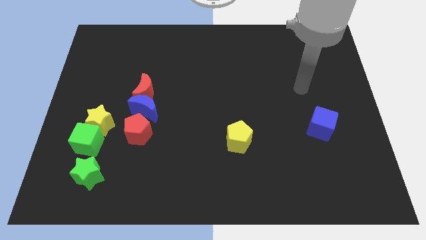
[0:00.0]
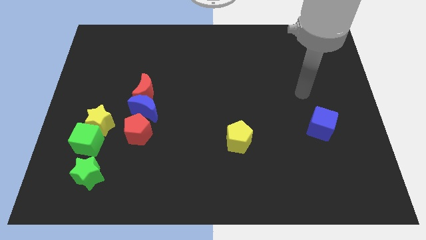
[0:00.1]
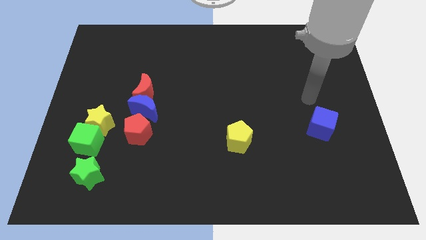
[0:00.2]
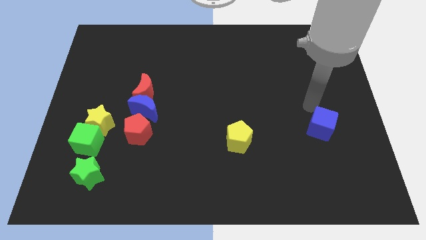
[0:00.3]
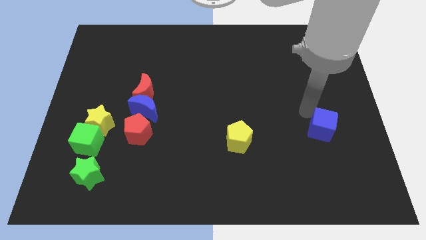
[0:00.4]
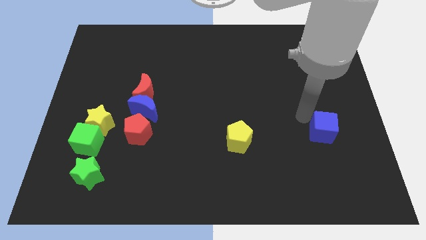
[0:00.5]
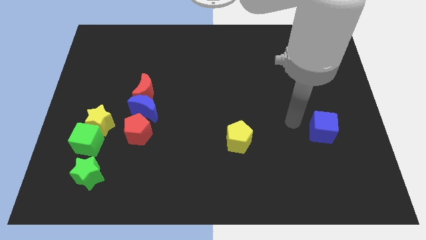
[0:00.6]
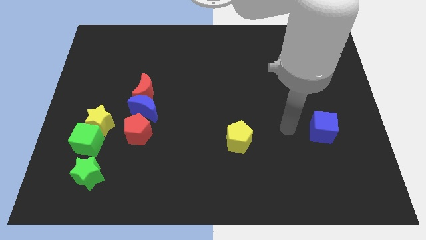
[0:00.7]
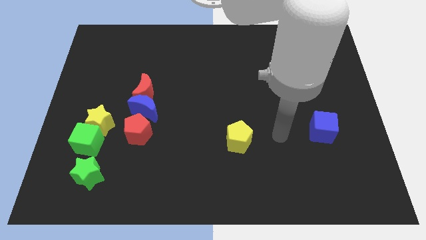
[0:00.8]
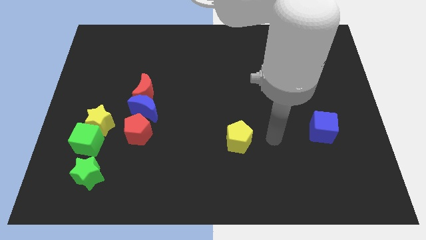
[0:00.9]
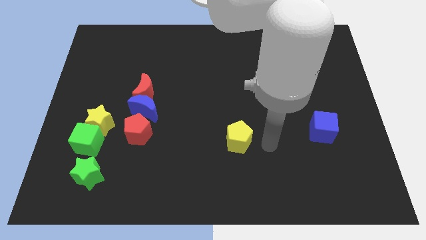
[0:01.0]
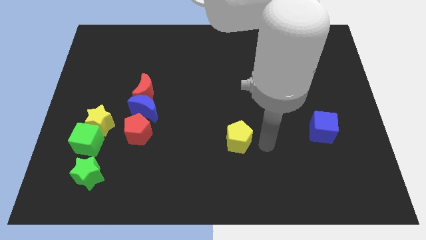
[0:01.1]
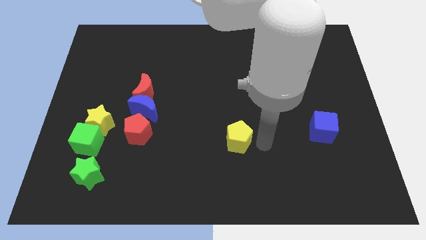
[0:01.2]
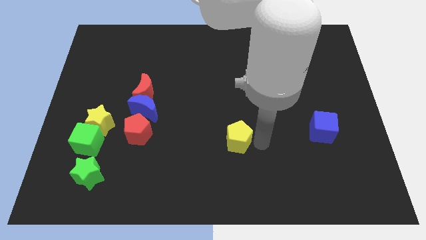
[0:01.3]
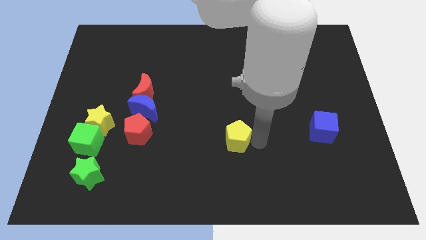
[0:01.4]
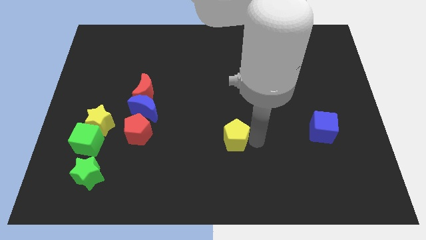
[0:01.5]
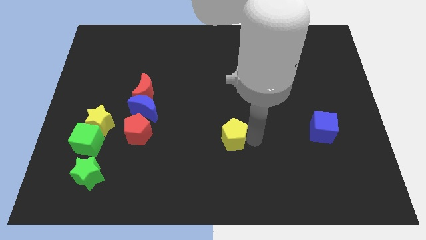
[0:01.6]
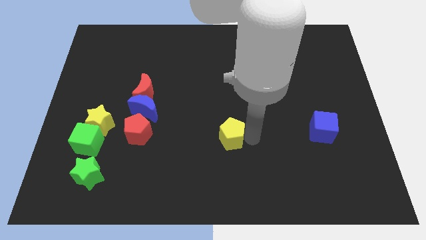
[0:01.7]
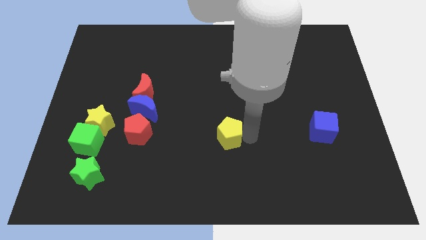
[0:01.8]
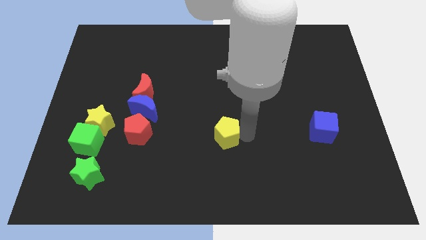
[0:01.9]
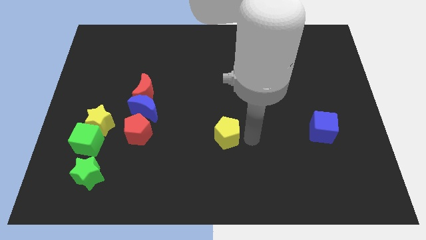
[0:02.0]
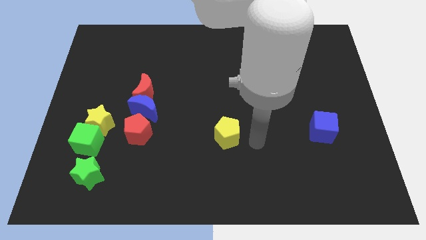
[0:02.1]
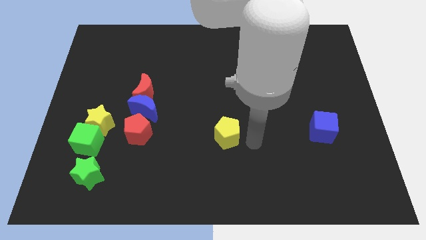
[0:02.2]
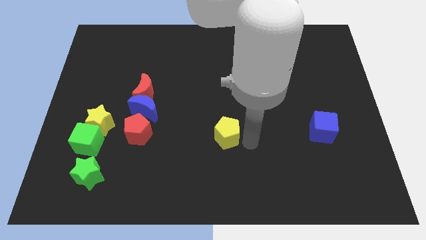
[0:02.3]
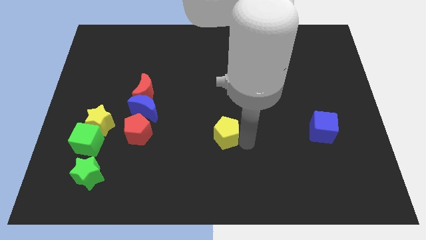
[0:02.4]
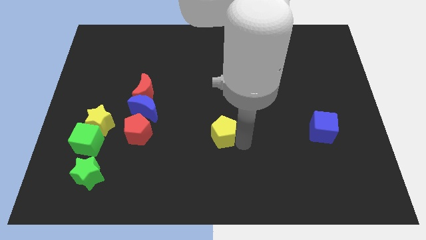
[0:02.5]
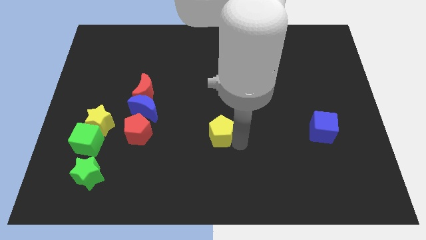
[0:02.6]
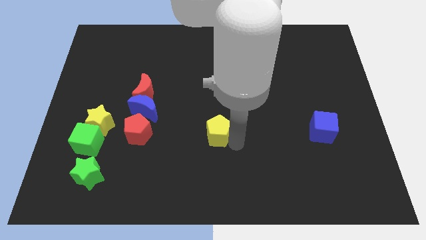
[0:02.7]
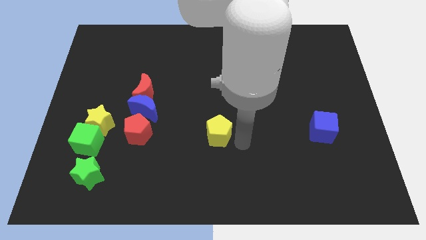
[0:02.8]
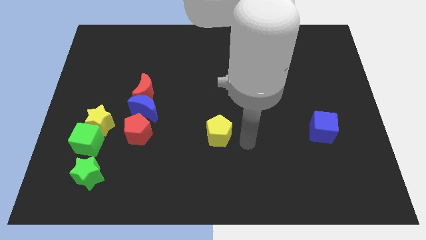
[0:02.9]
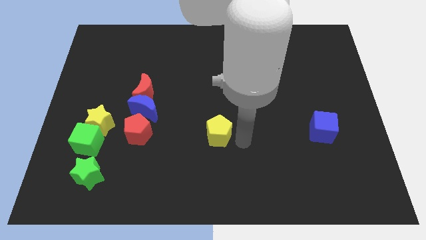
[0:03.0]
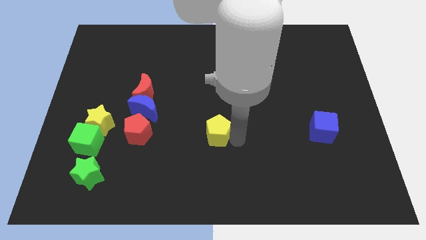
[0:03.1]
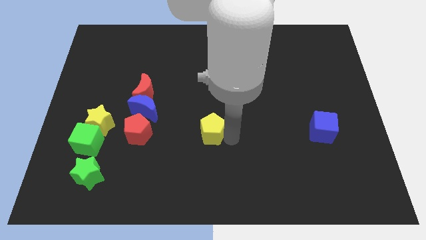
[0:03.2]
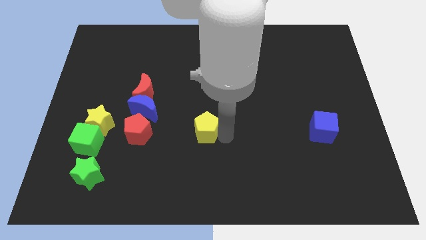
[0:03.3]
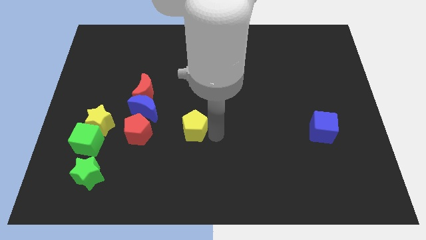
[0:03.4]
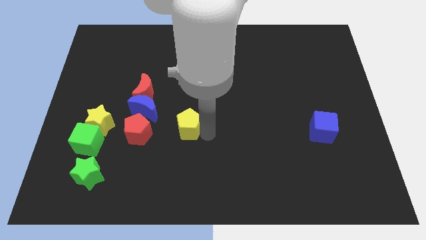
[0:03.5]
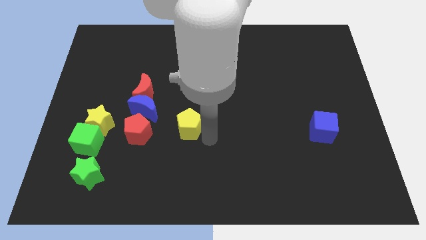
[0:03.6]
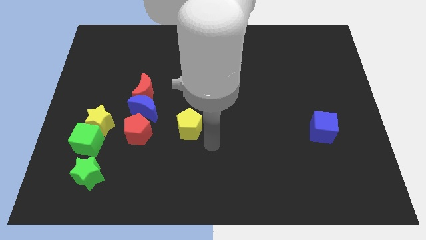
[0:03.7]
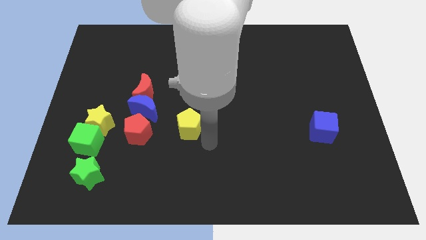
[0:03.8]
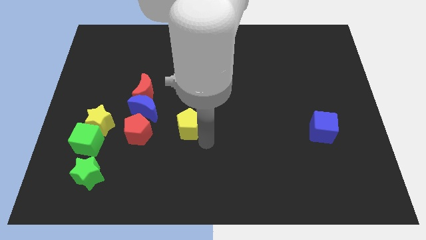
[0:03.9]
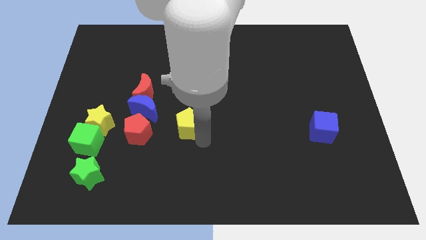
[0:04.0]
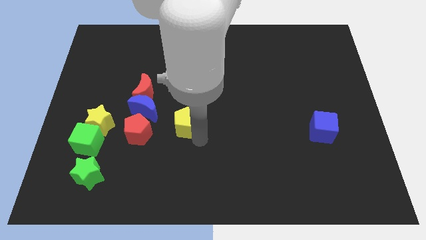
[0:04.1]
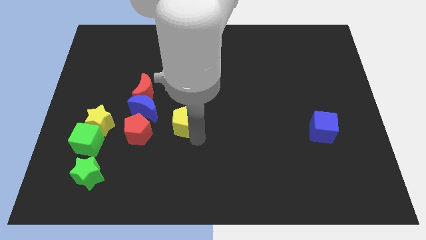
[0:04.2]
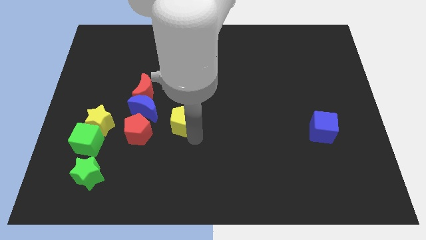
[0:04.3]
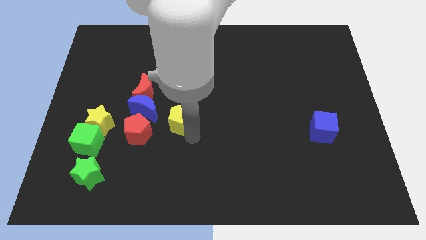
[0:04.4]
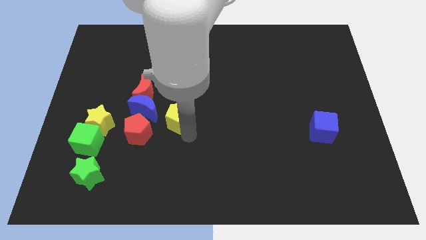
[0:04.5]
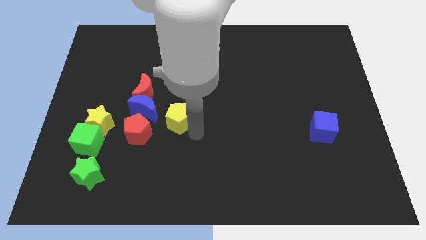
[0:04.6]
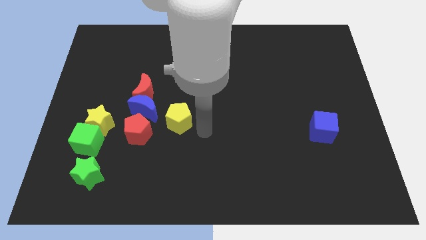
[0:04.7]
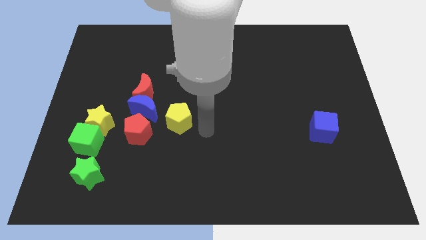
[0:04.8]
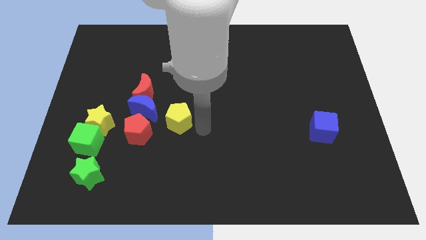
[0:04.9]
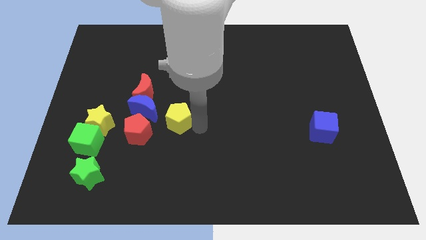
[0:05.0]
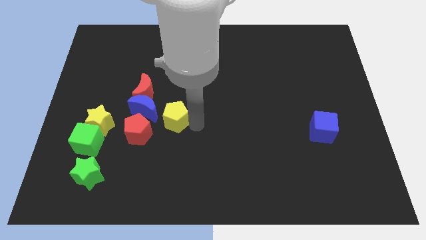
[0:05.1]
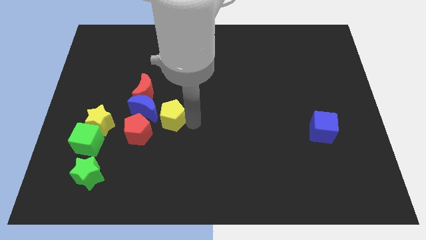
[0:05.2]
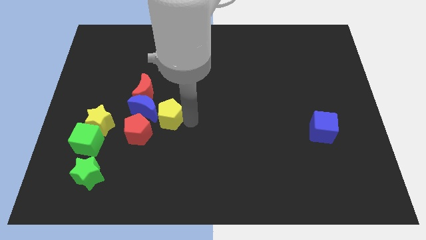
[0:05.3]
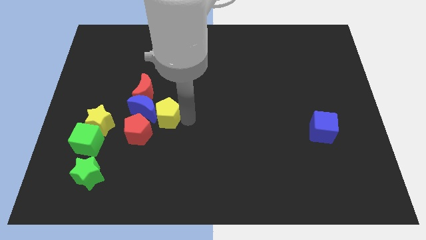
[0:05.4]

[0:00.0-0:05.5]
move the yellow pentagon towards the blue moon
